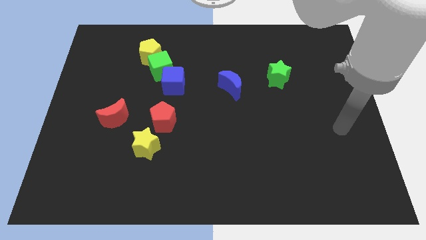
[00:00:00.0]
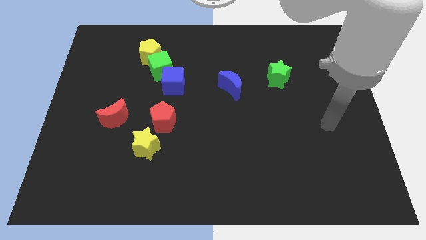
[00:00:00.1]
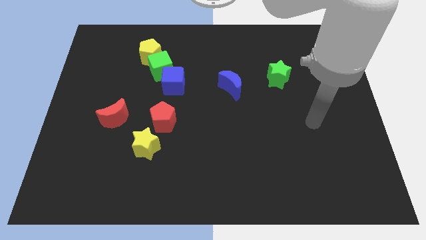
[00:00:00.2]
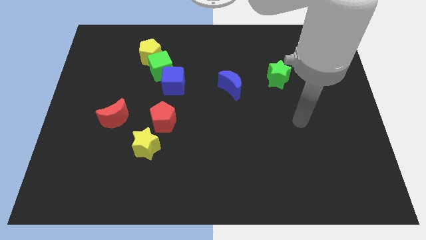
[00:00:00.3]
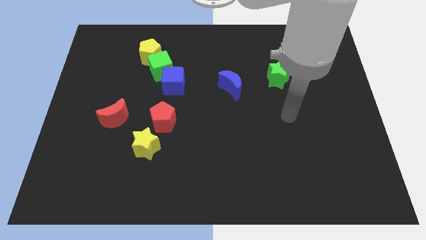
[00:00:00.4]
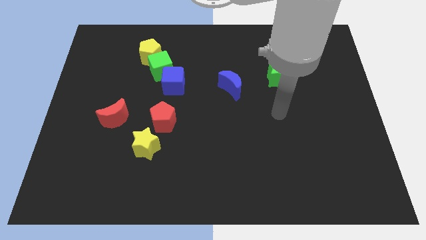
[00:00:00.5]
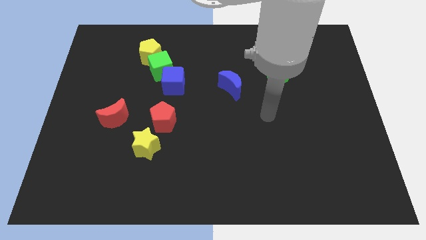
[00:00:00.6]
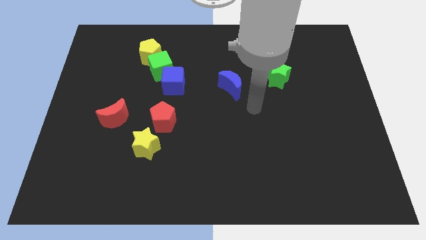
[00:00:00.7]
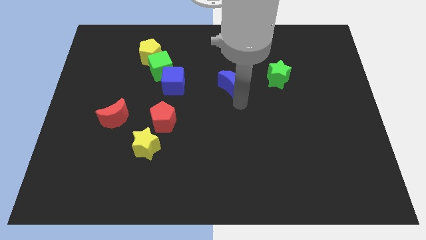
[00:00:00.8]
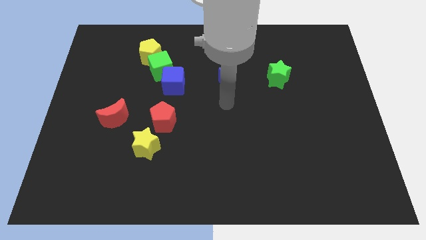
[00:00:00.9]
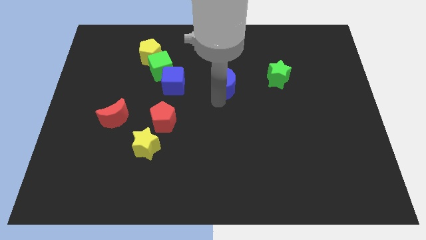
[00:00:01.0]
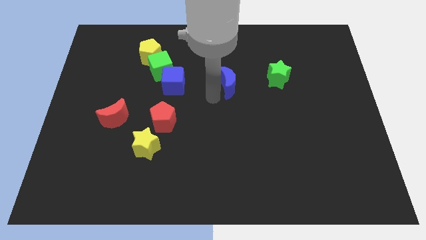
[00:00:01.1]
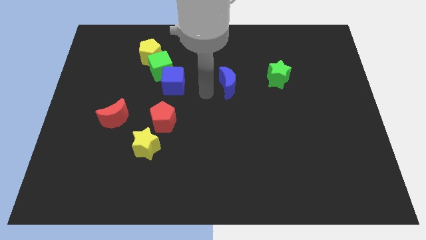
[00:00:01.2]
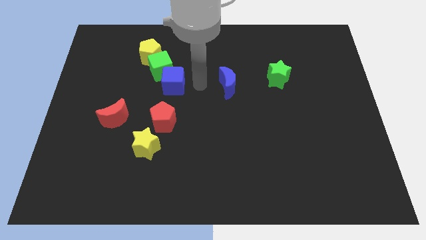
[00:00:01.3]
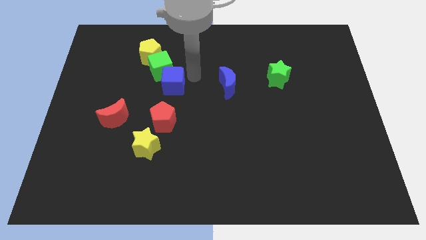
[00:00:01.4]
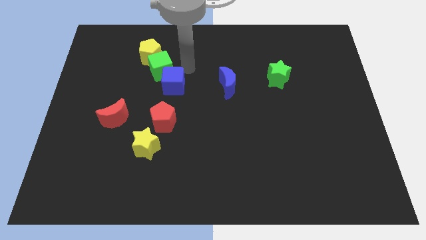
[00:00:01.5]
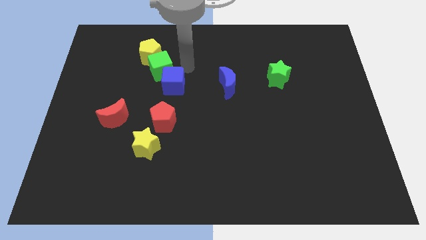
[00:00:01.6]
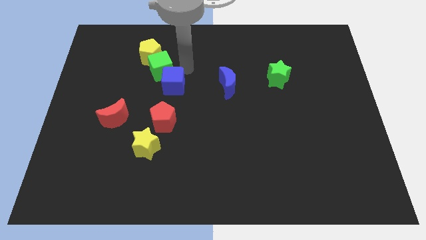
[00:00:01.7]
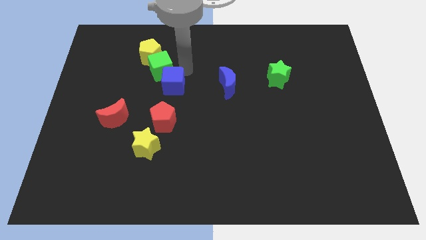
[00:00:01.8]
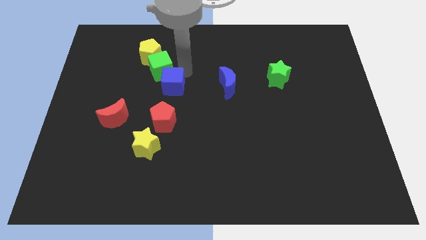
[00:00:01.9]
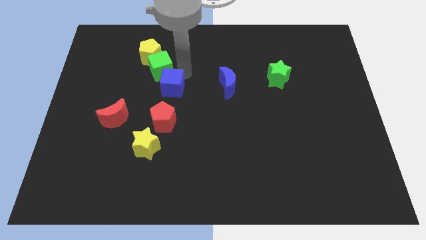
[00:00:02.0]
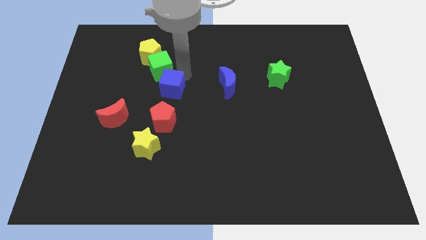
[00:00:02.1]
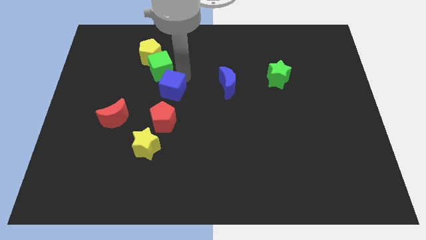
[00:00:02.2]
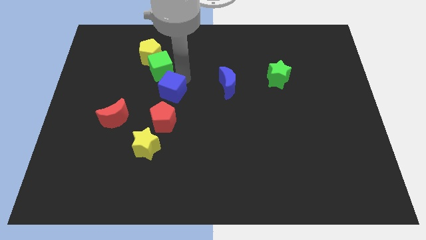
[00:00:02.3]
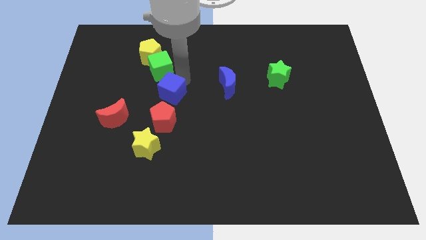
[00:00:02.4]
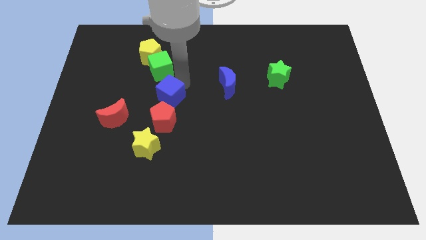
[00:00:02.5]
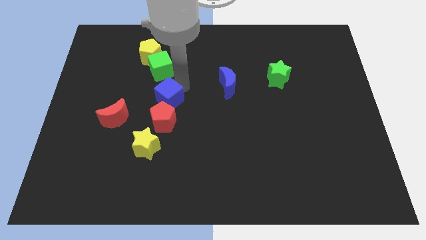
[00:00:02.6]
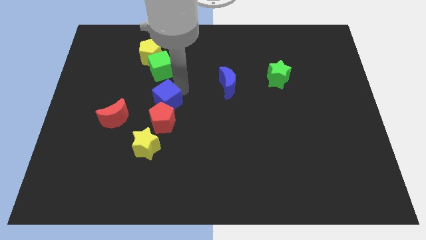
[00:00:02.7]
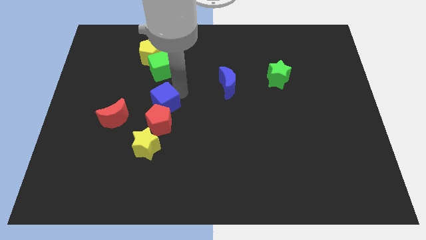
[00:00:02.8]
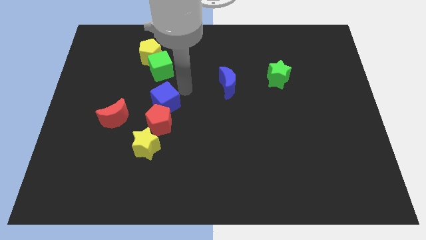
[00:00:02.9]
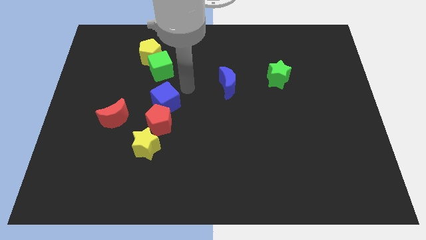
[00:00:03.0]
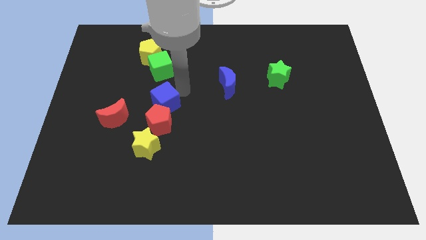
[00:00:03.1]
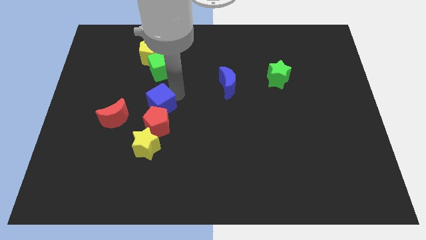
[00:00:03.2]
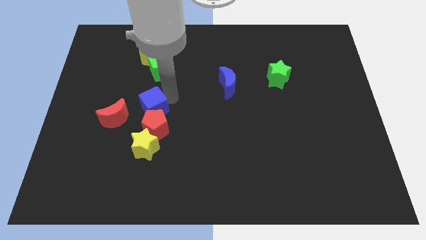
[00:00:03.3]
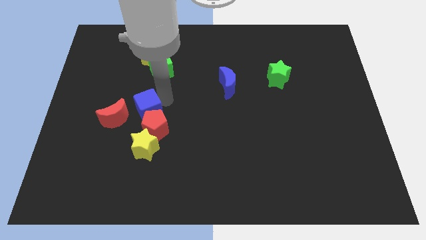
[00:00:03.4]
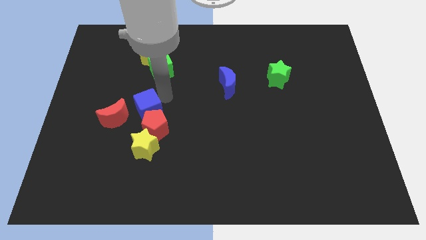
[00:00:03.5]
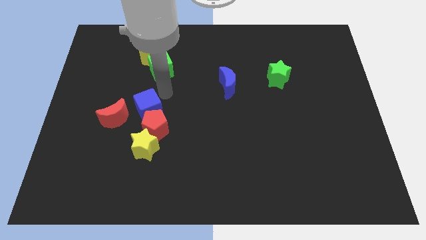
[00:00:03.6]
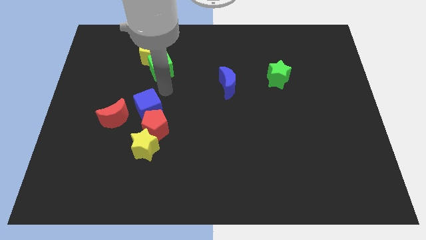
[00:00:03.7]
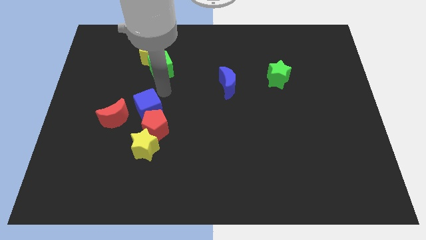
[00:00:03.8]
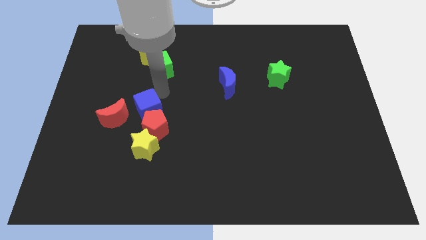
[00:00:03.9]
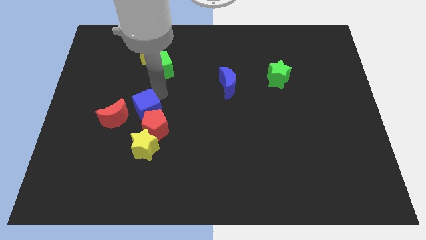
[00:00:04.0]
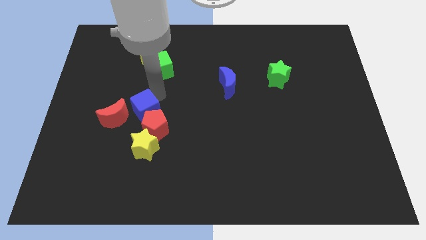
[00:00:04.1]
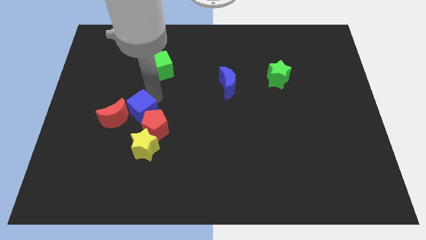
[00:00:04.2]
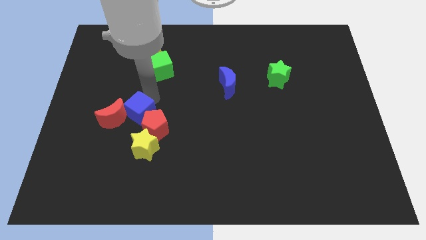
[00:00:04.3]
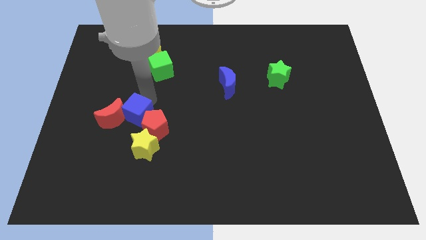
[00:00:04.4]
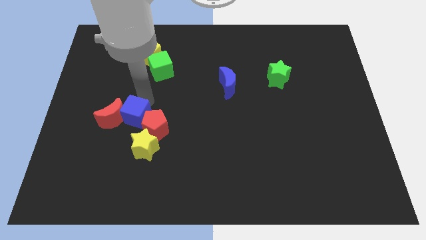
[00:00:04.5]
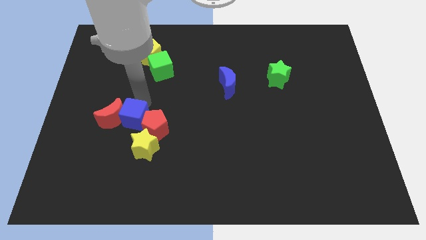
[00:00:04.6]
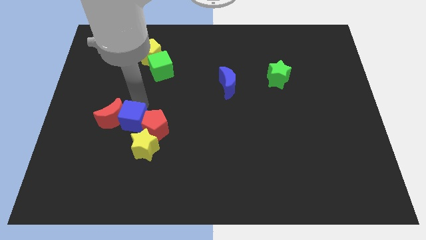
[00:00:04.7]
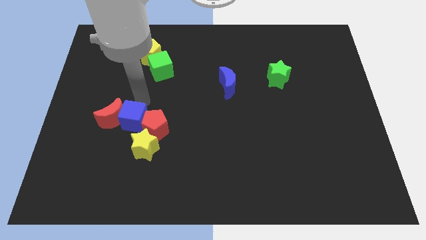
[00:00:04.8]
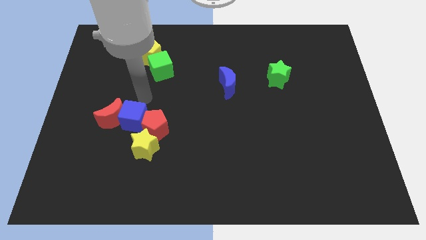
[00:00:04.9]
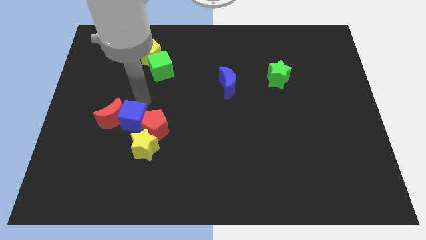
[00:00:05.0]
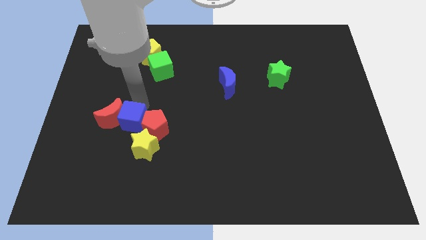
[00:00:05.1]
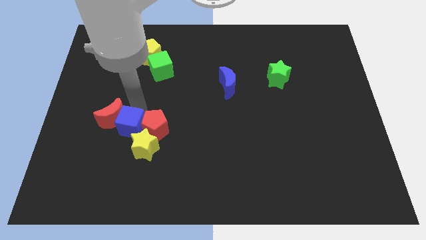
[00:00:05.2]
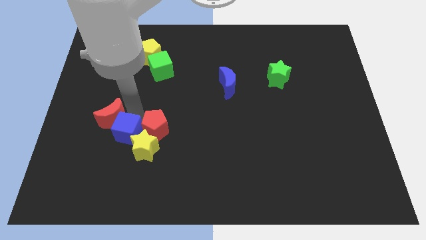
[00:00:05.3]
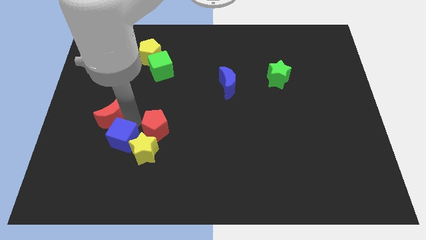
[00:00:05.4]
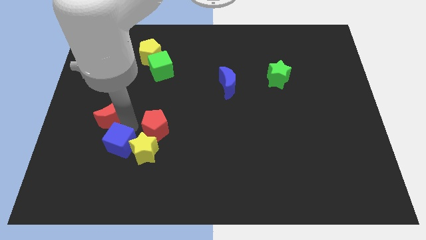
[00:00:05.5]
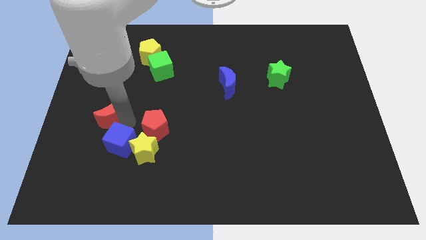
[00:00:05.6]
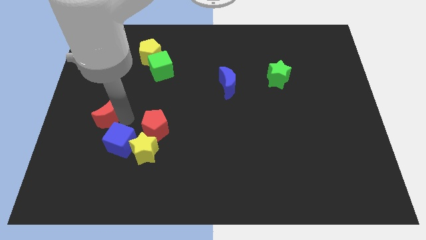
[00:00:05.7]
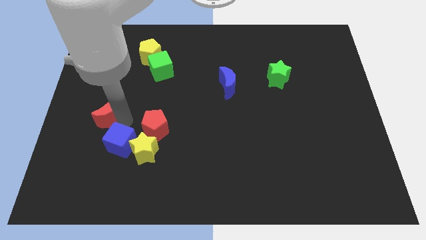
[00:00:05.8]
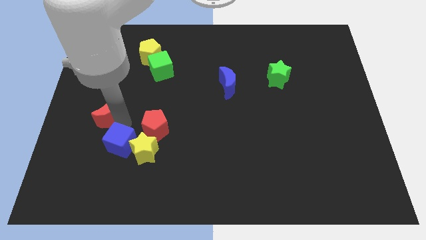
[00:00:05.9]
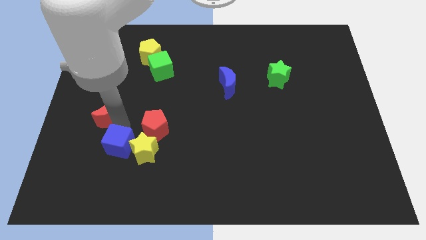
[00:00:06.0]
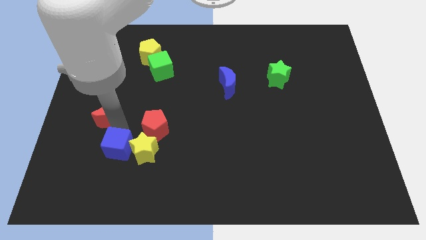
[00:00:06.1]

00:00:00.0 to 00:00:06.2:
put the blue cube to the bottom left side of the yellow star
